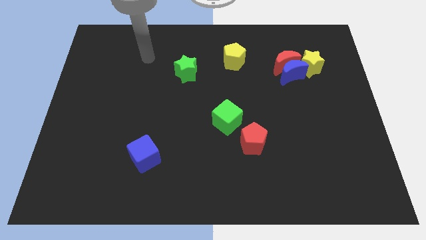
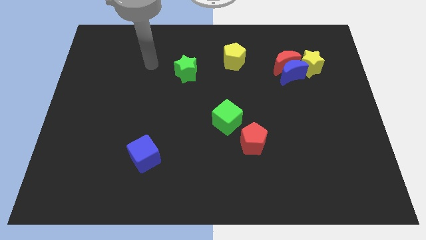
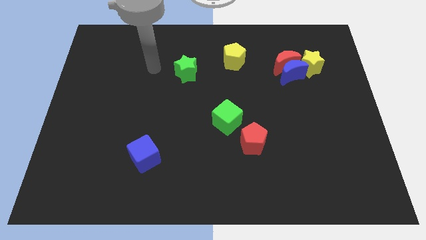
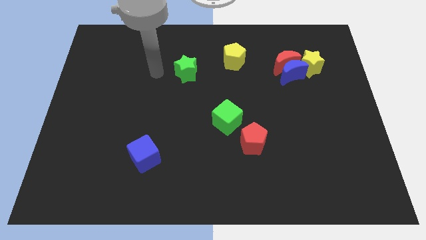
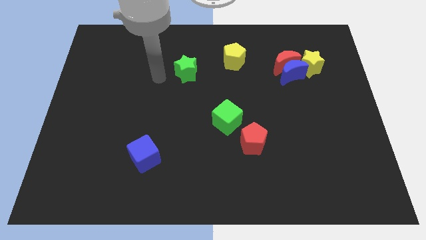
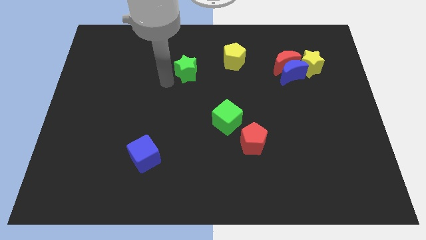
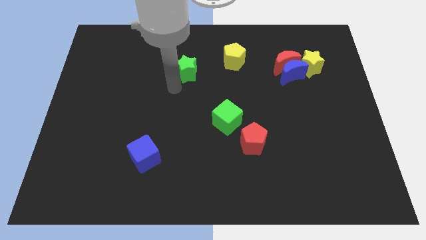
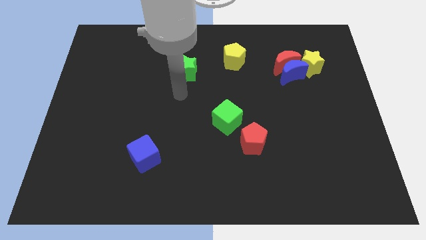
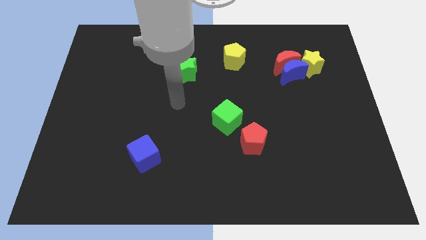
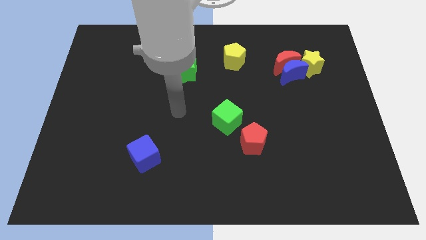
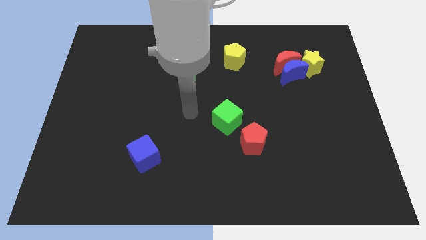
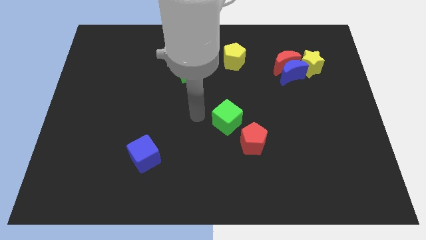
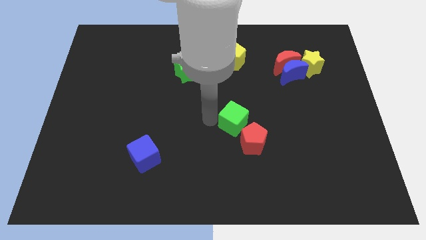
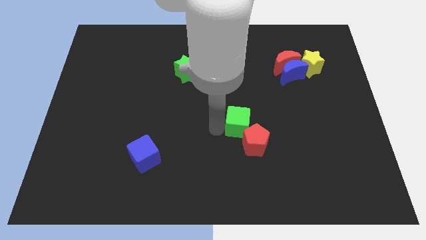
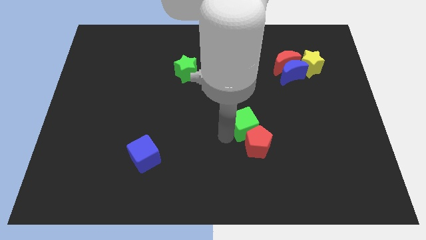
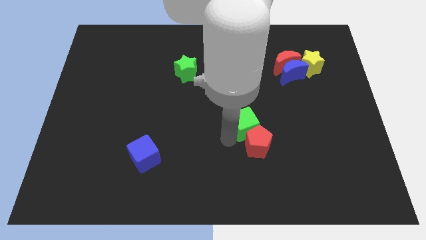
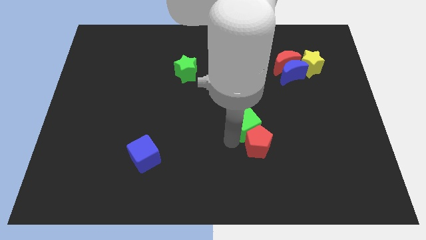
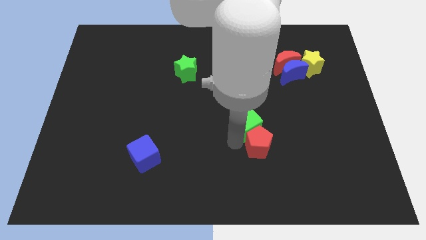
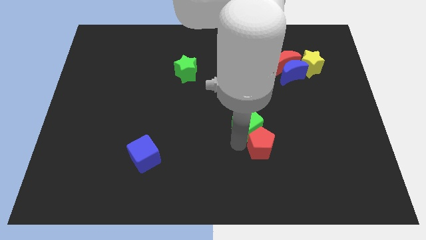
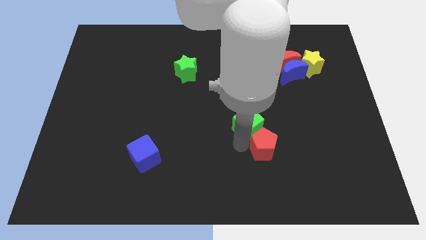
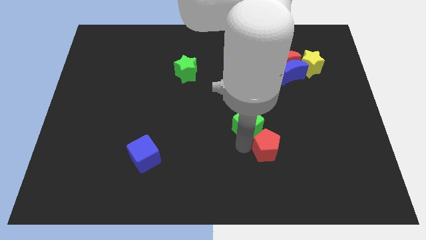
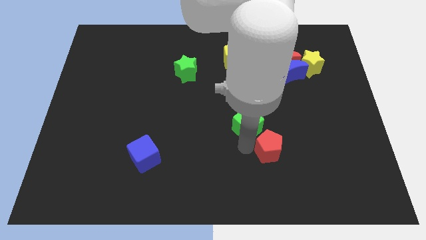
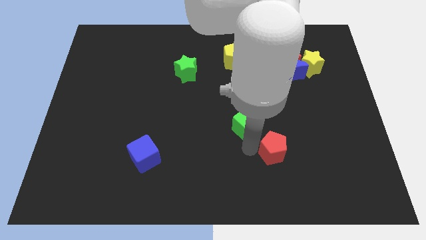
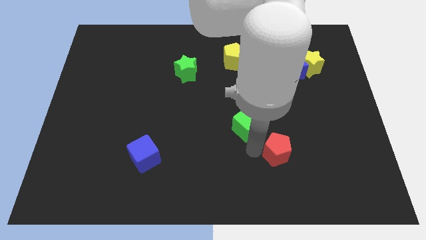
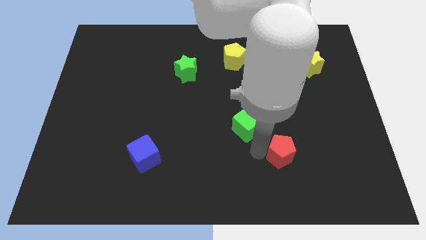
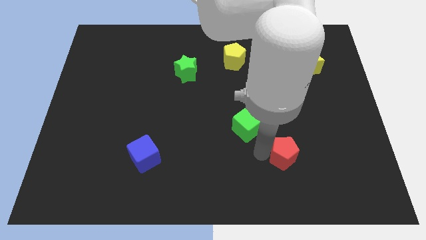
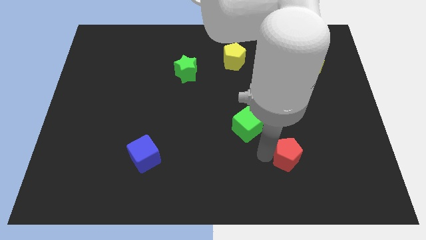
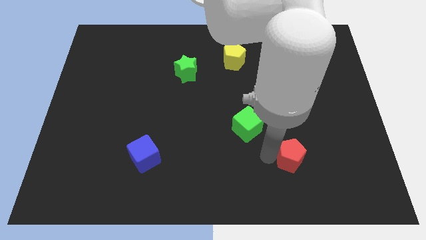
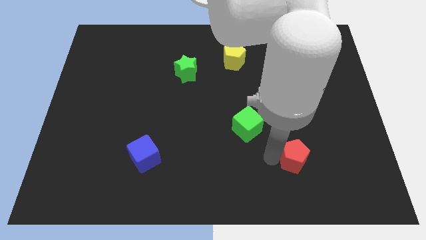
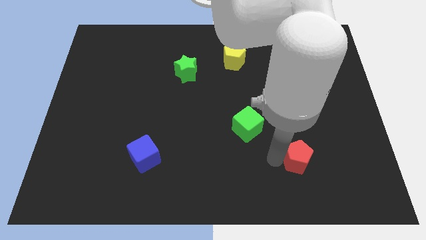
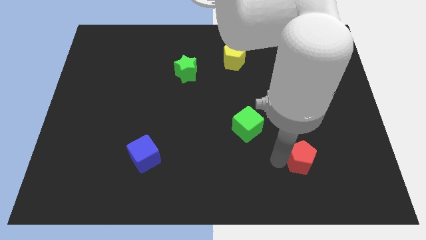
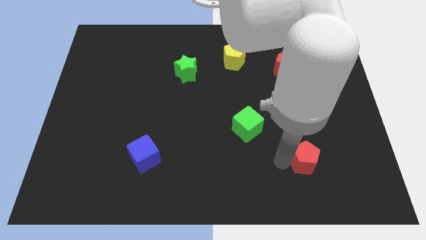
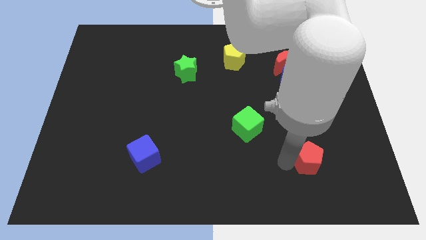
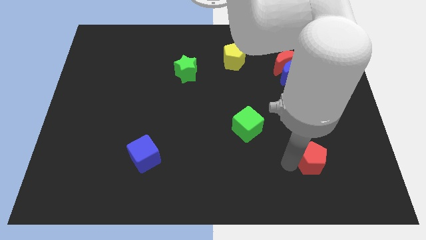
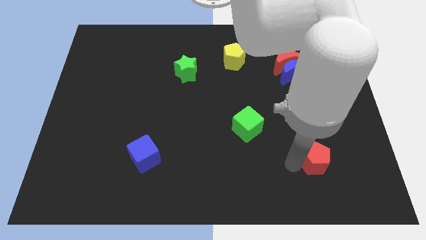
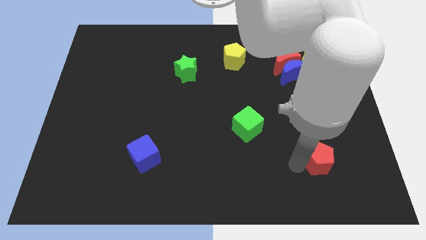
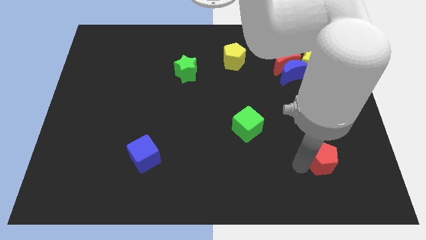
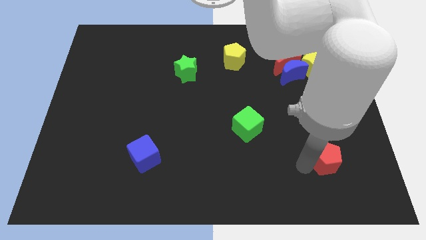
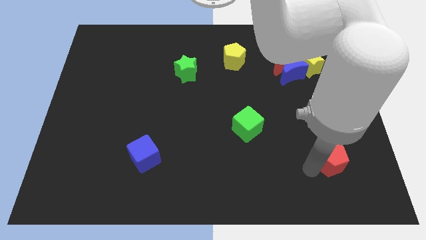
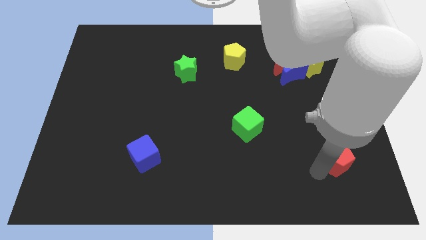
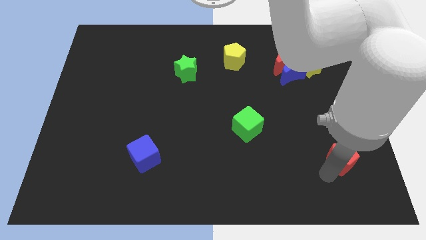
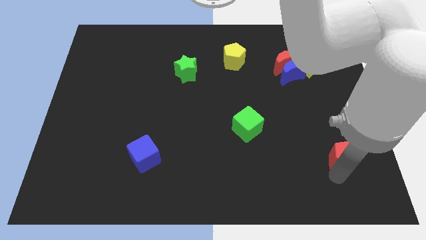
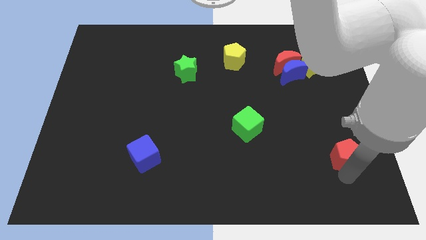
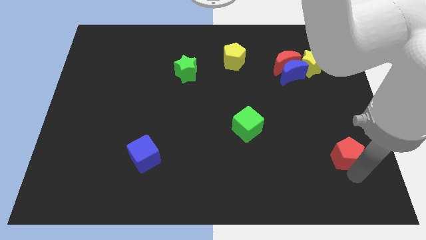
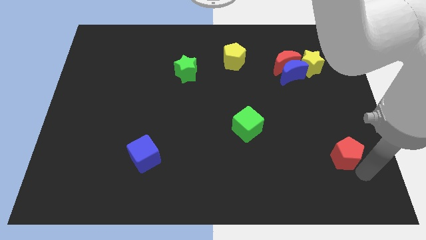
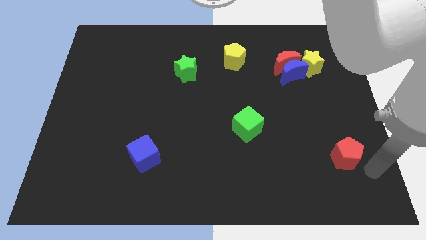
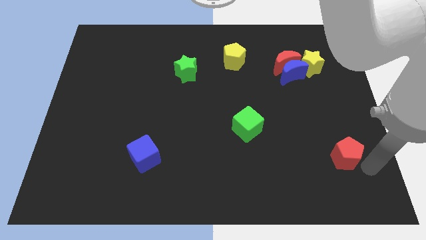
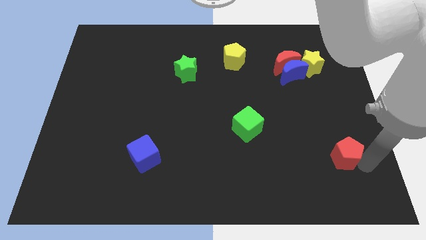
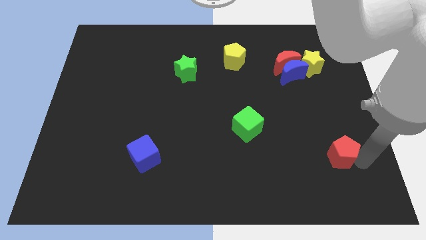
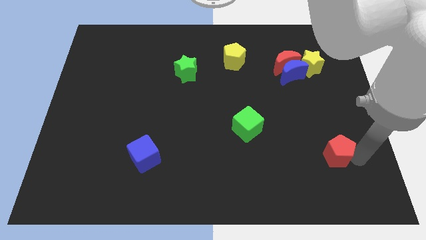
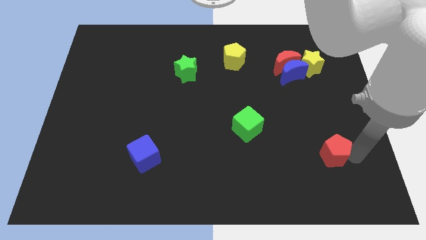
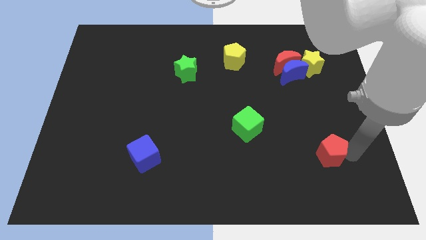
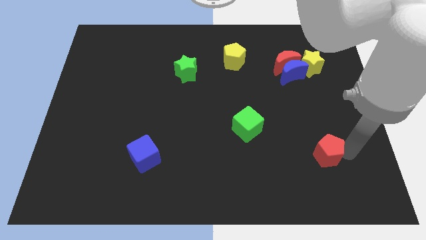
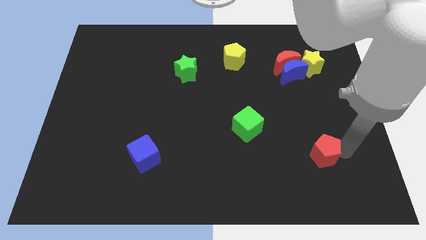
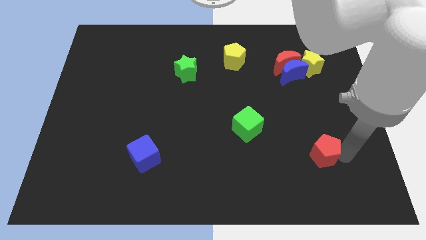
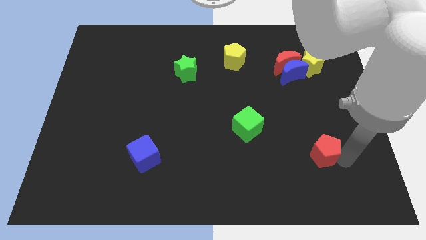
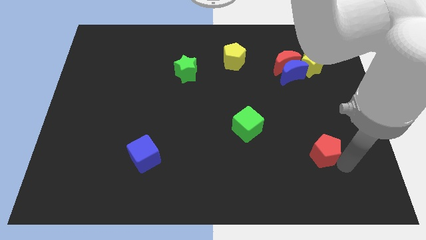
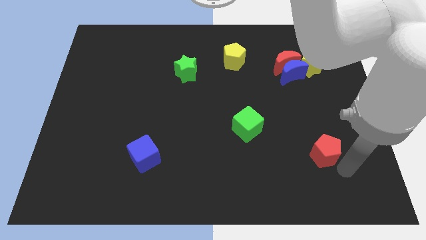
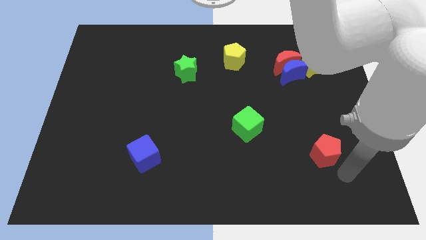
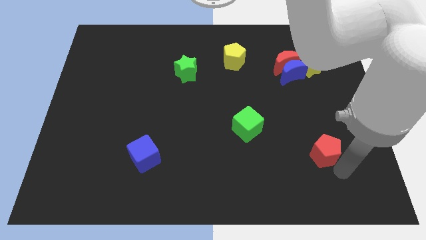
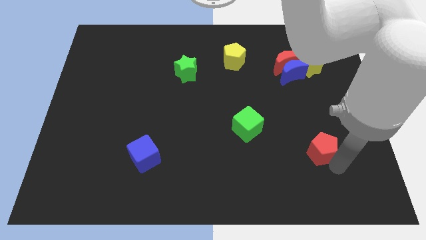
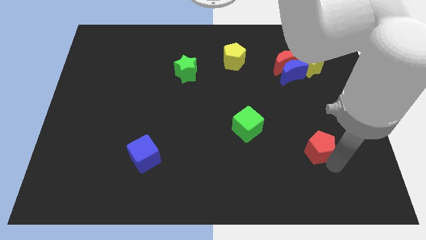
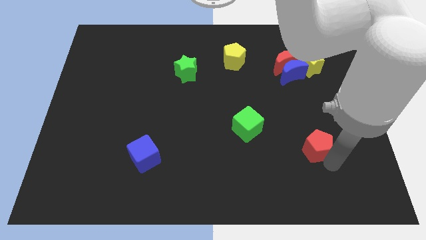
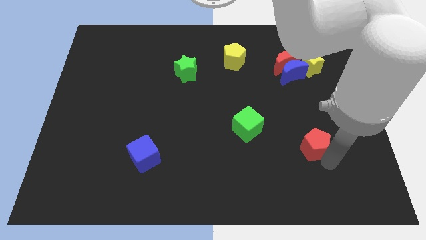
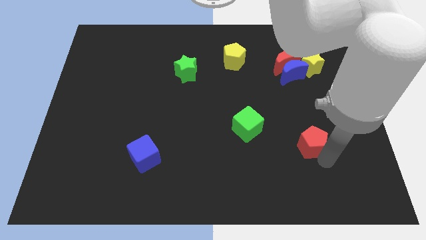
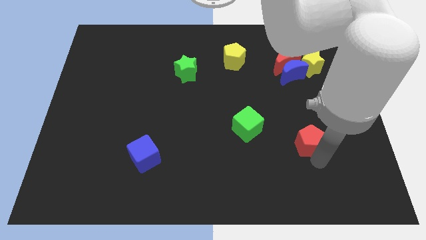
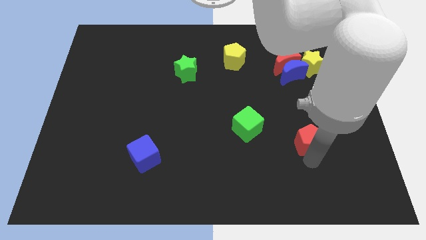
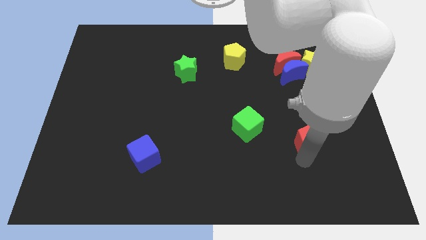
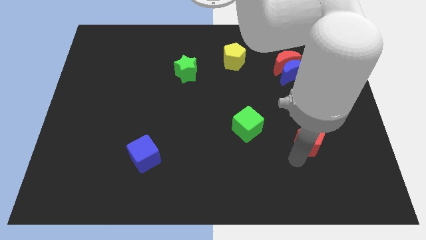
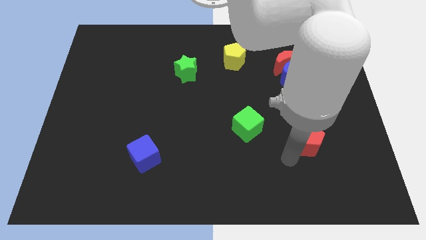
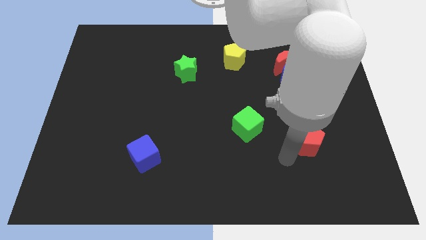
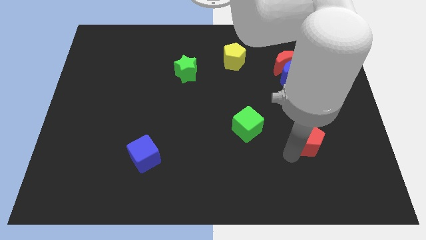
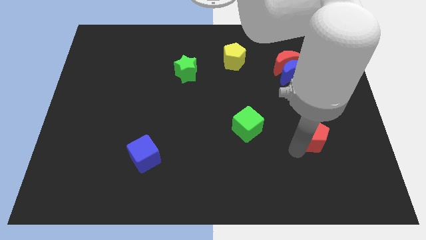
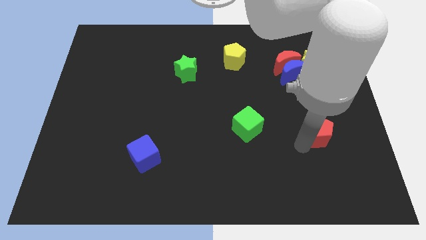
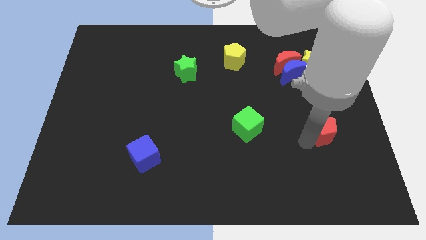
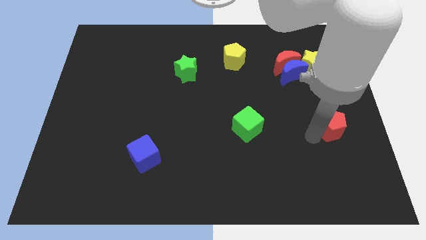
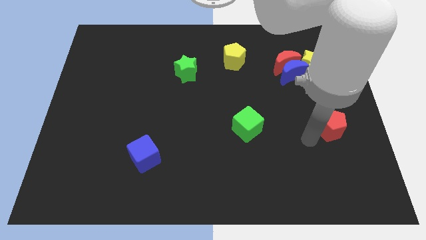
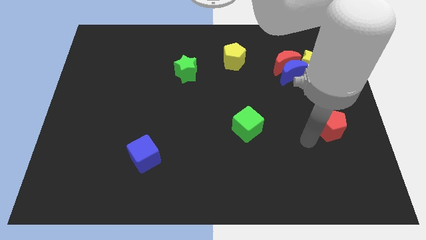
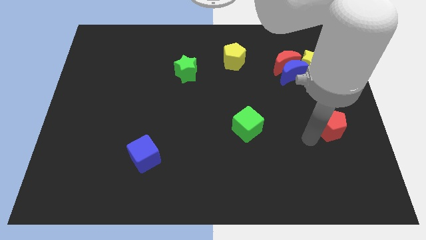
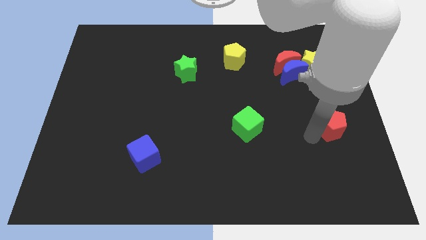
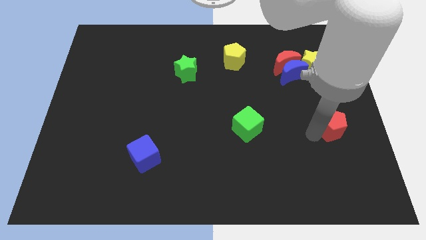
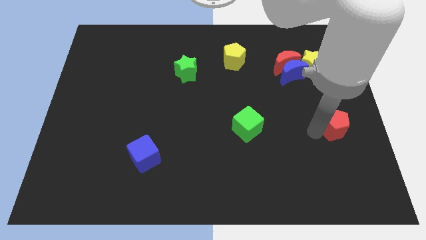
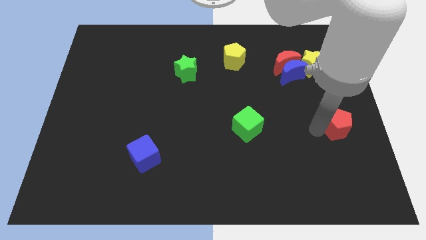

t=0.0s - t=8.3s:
move the red pentagon to the right side of the board
